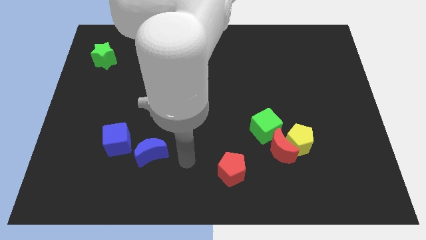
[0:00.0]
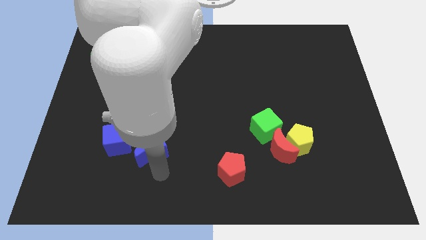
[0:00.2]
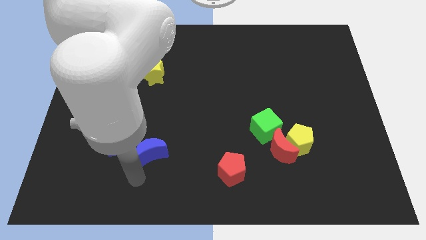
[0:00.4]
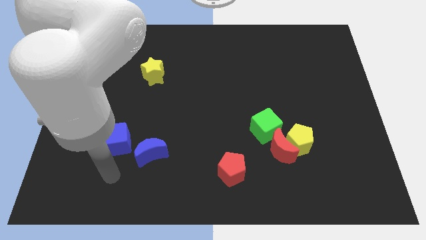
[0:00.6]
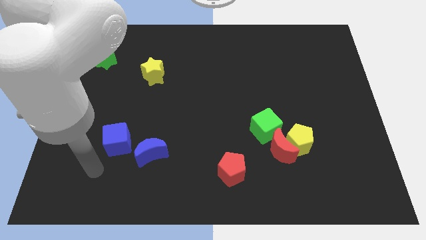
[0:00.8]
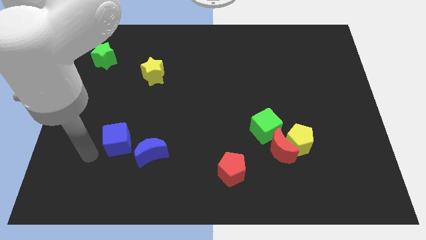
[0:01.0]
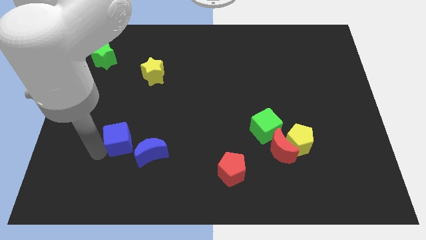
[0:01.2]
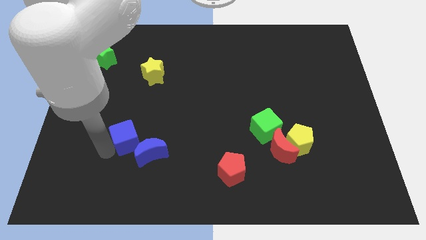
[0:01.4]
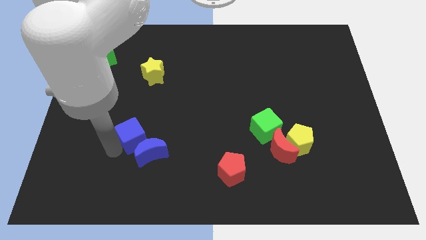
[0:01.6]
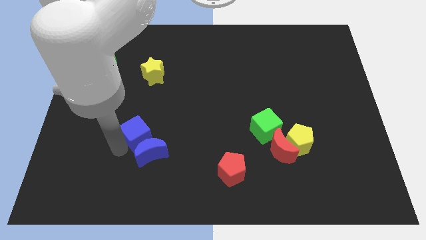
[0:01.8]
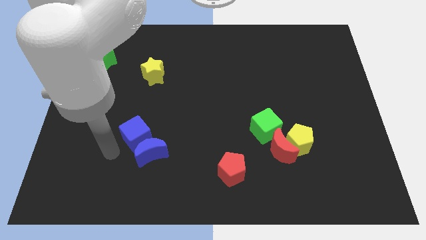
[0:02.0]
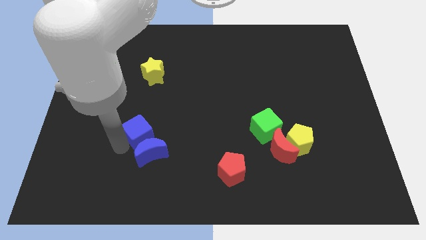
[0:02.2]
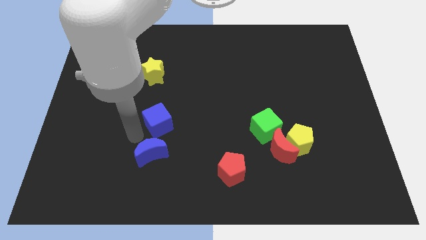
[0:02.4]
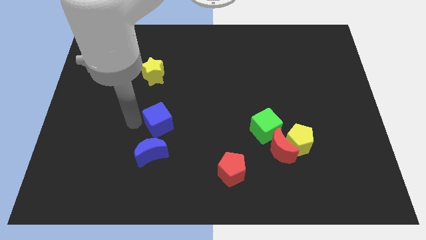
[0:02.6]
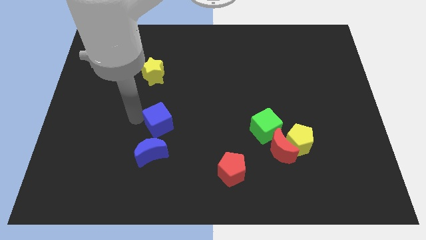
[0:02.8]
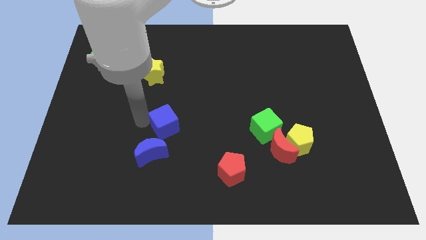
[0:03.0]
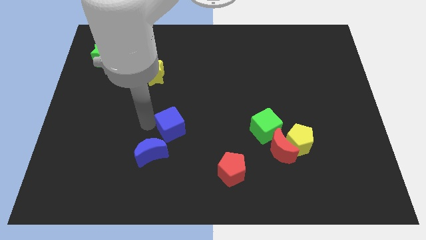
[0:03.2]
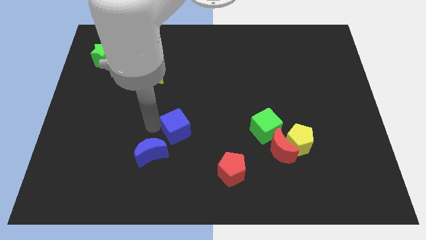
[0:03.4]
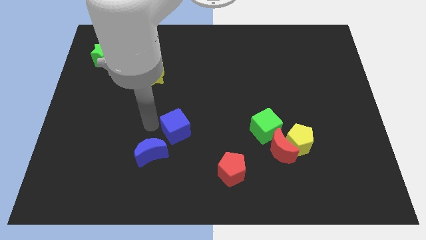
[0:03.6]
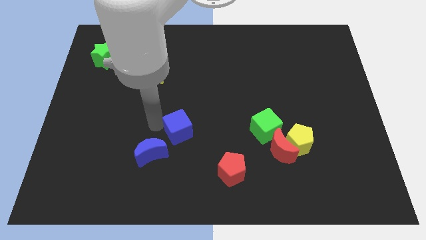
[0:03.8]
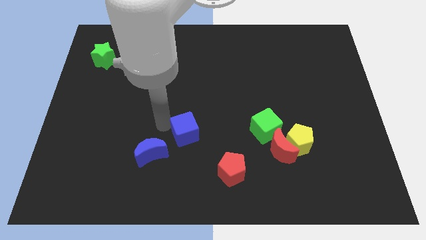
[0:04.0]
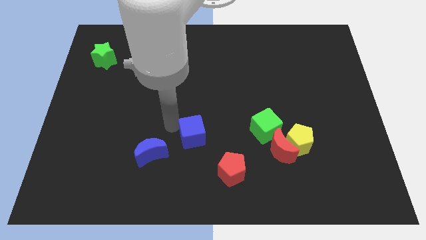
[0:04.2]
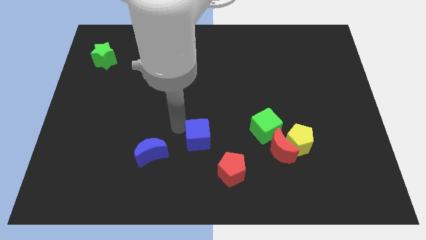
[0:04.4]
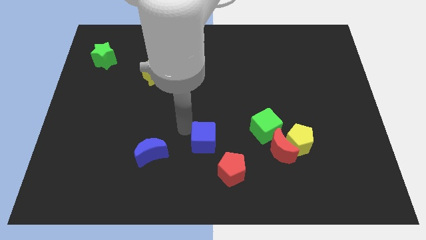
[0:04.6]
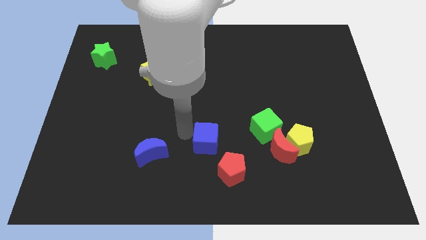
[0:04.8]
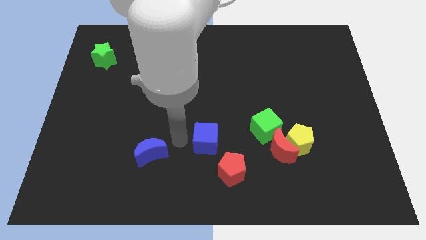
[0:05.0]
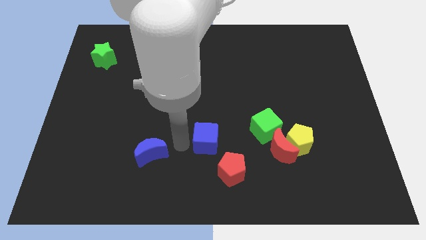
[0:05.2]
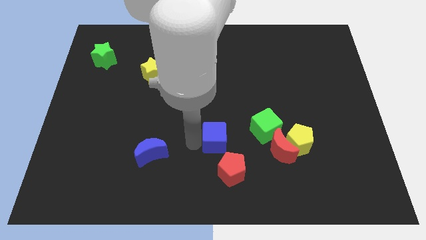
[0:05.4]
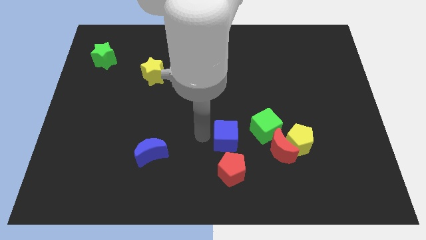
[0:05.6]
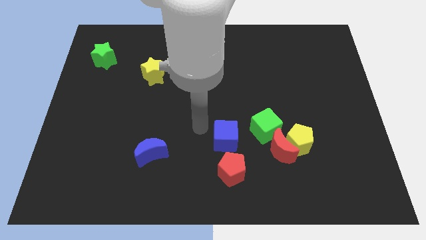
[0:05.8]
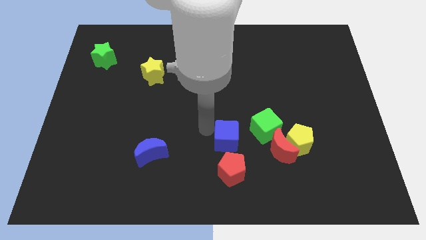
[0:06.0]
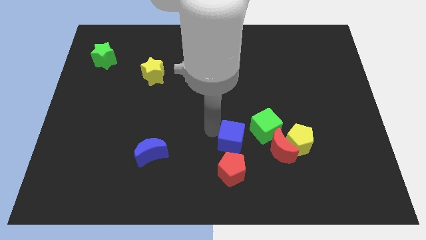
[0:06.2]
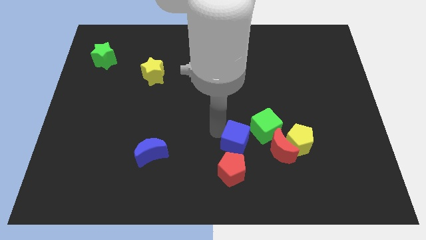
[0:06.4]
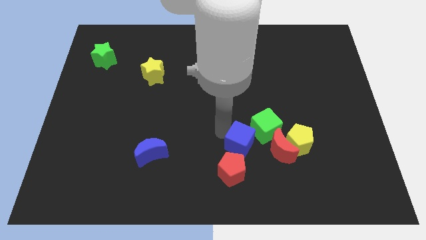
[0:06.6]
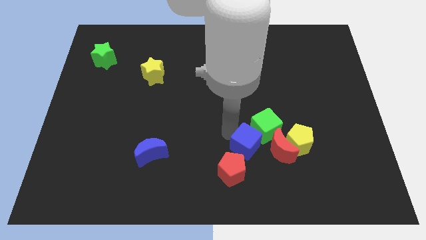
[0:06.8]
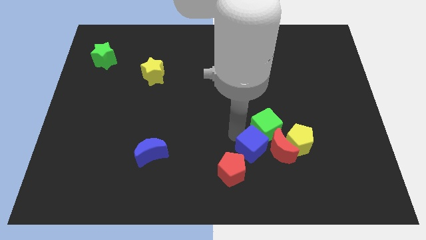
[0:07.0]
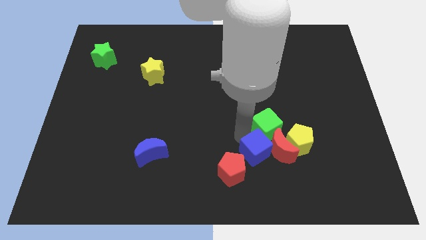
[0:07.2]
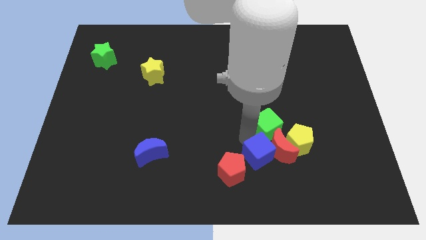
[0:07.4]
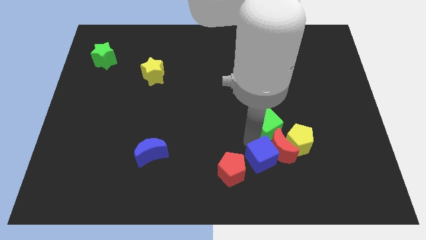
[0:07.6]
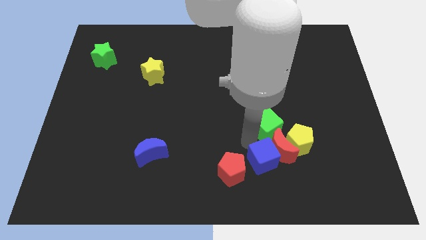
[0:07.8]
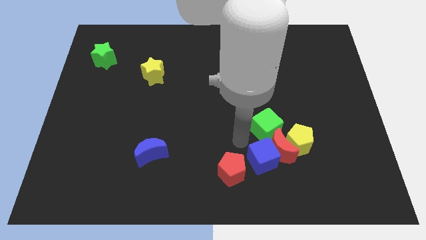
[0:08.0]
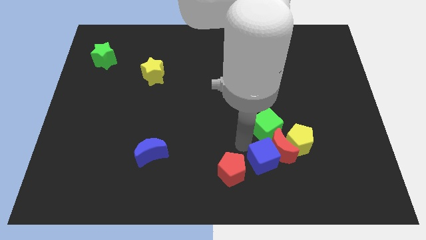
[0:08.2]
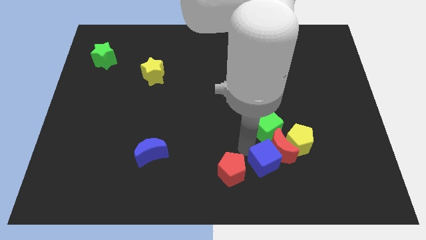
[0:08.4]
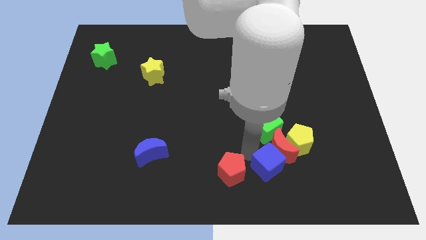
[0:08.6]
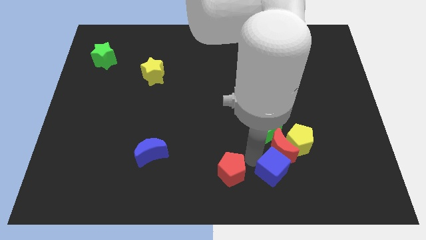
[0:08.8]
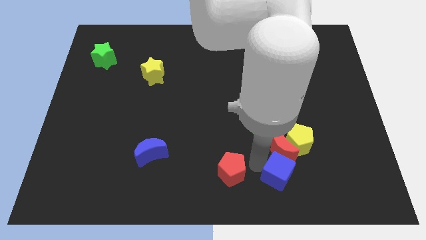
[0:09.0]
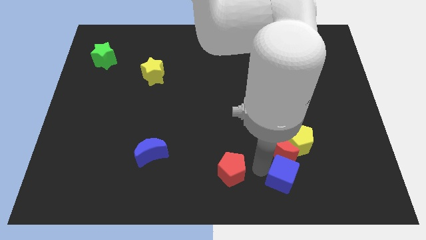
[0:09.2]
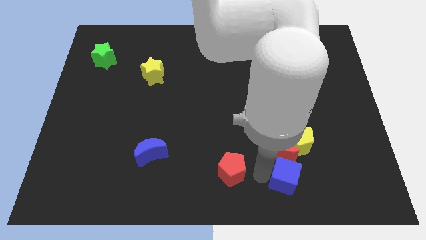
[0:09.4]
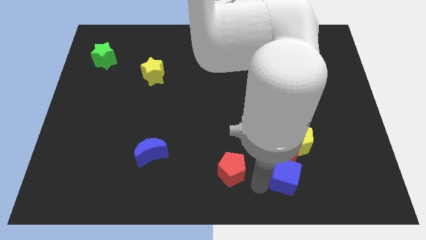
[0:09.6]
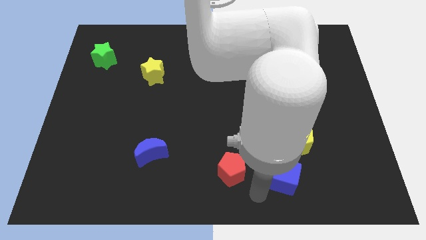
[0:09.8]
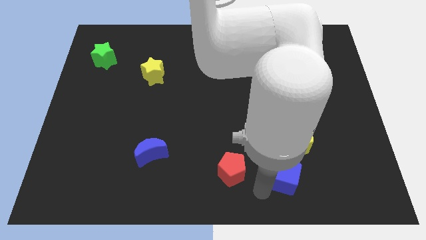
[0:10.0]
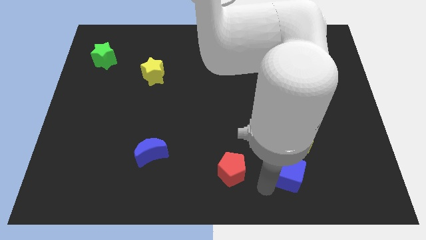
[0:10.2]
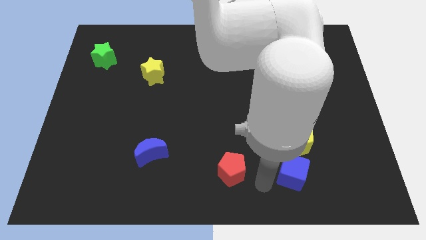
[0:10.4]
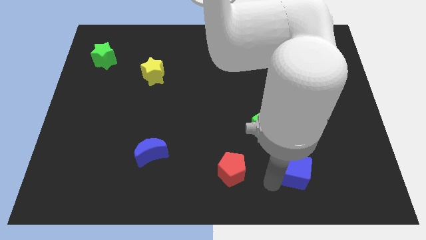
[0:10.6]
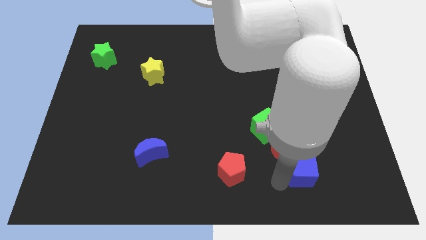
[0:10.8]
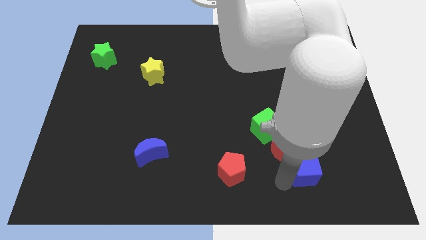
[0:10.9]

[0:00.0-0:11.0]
slide the blue cube to the bottom right of the yellow pentagon

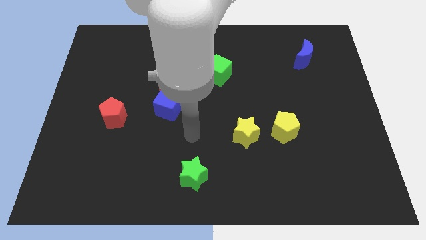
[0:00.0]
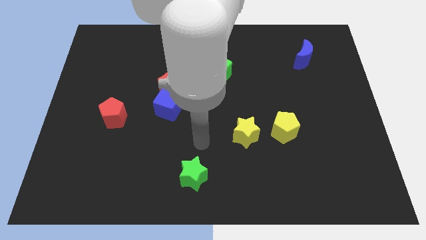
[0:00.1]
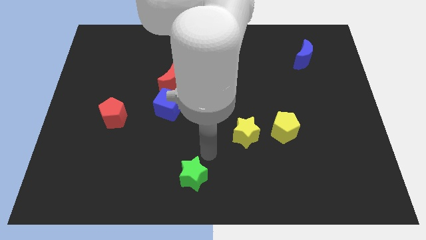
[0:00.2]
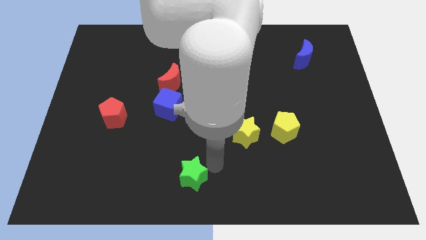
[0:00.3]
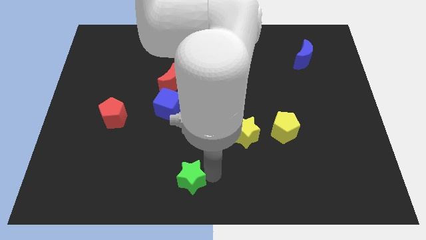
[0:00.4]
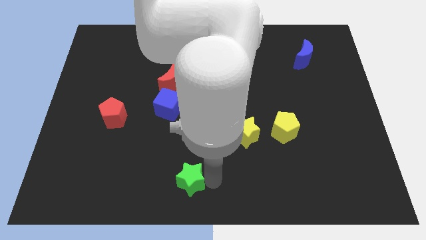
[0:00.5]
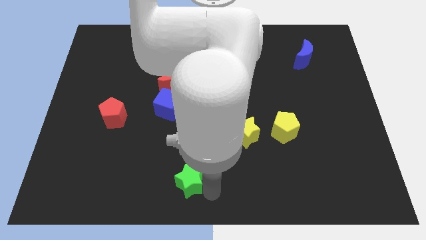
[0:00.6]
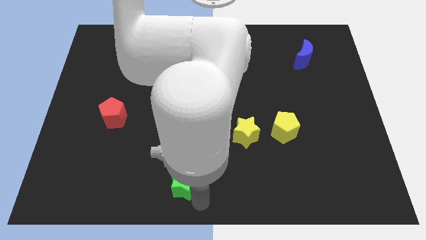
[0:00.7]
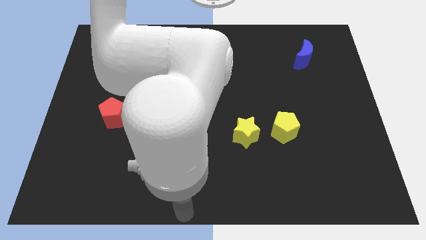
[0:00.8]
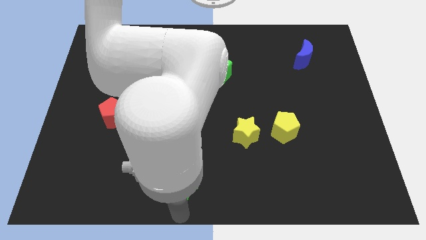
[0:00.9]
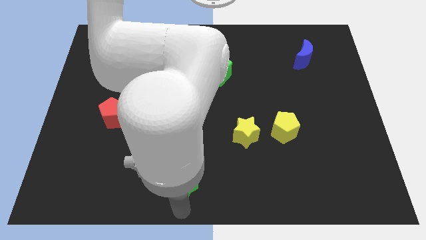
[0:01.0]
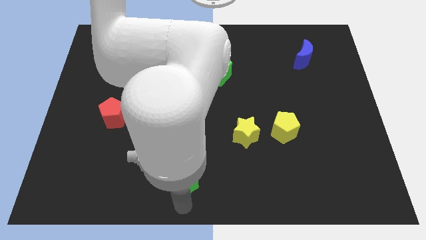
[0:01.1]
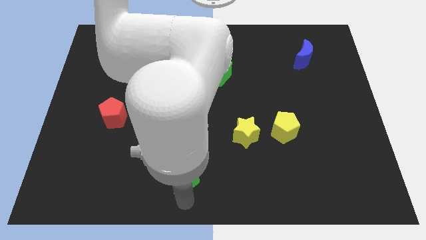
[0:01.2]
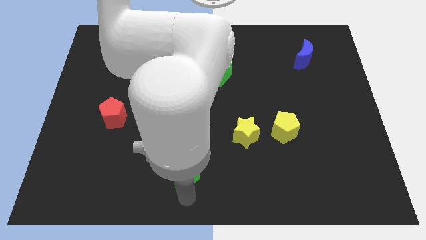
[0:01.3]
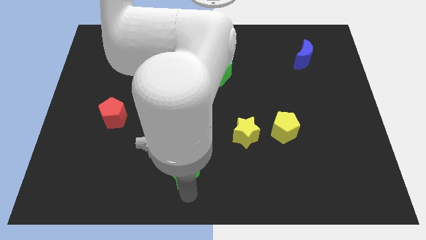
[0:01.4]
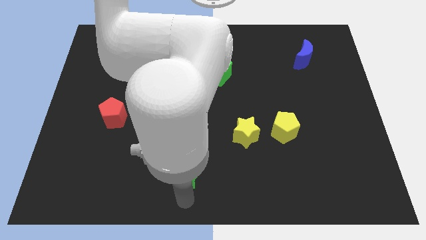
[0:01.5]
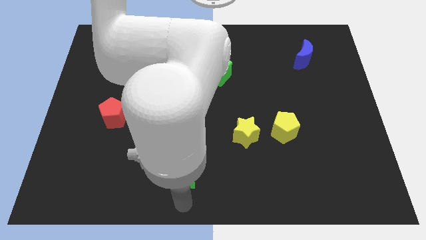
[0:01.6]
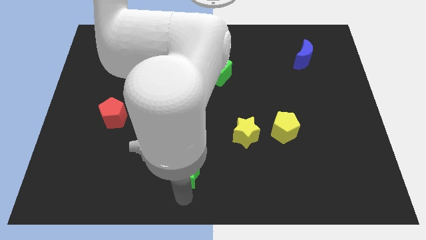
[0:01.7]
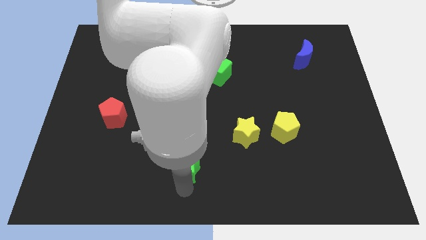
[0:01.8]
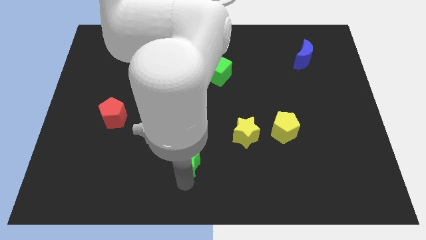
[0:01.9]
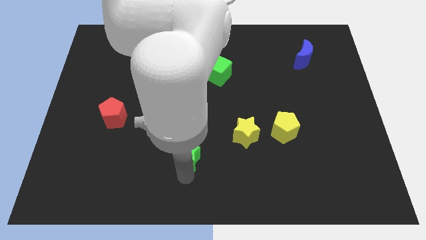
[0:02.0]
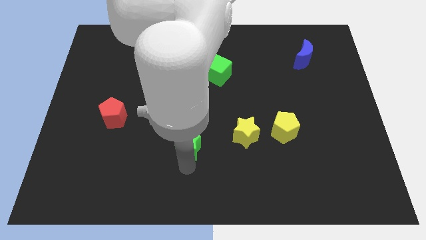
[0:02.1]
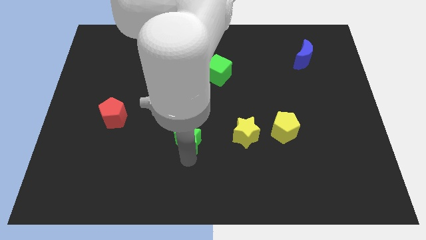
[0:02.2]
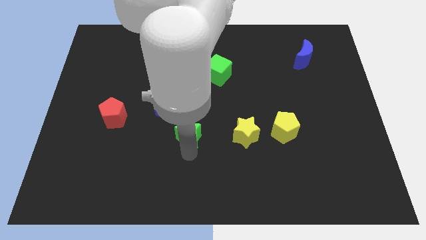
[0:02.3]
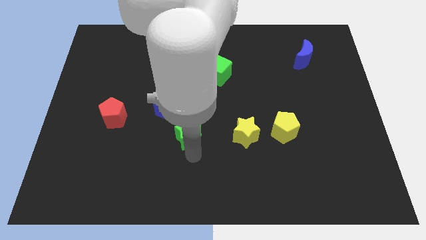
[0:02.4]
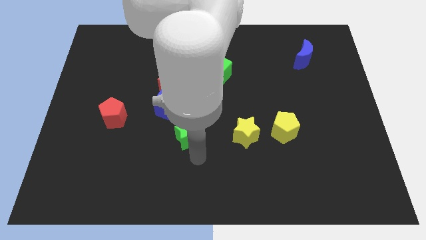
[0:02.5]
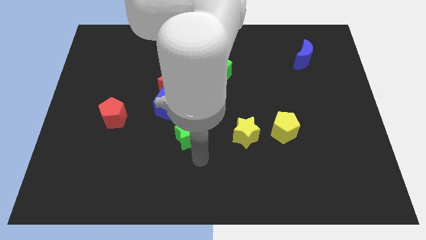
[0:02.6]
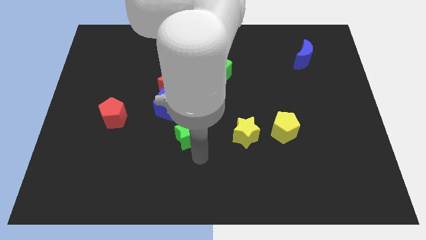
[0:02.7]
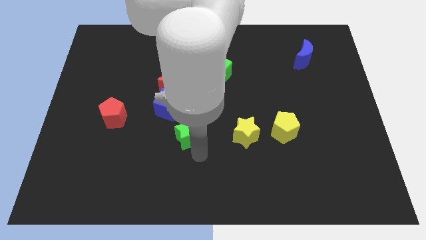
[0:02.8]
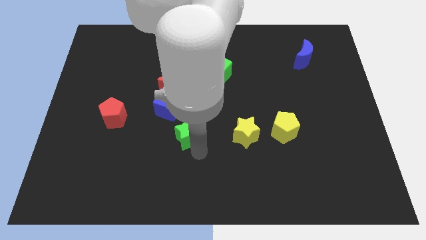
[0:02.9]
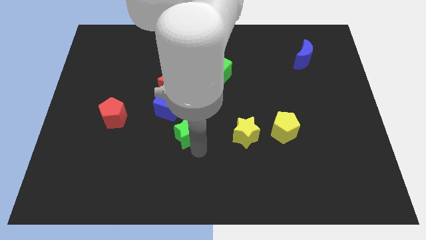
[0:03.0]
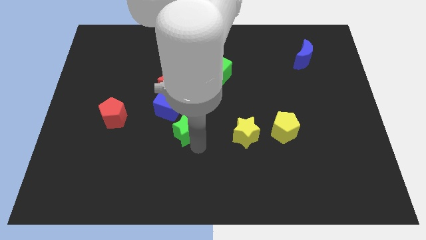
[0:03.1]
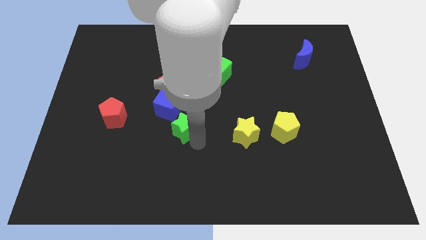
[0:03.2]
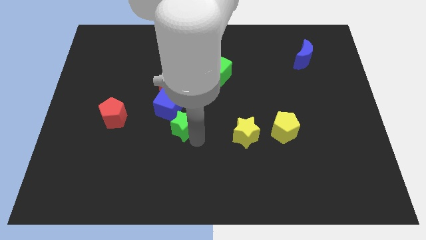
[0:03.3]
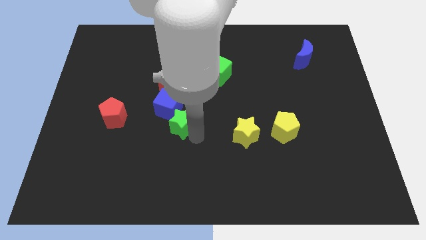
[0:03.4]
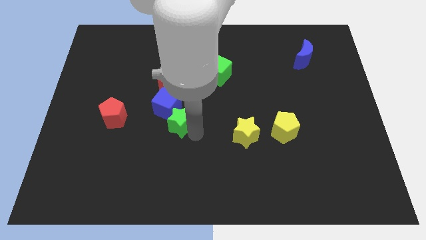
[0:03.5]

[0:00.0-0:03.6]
put the green star to the right of the red pentagon
